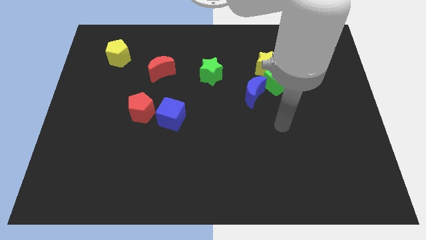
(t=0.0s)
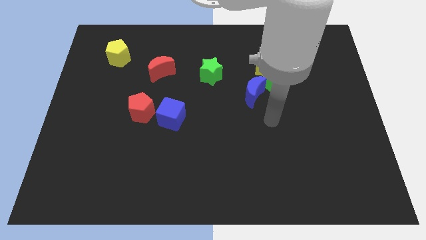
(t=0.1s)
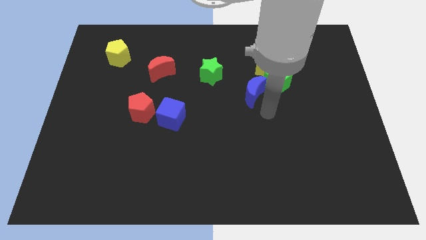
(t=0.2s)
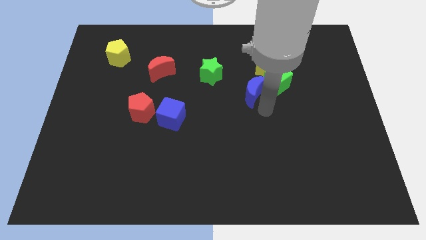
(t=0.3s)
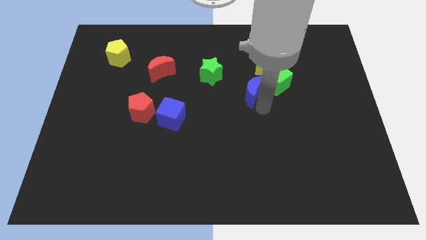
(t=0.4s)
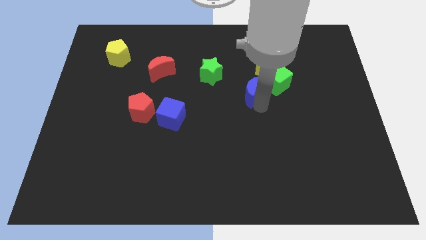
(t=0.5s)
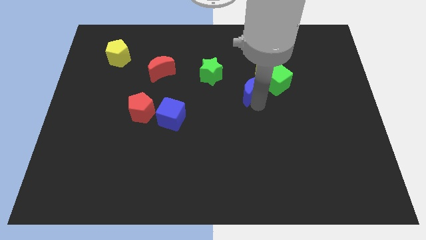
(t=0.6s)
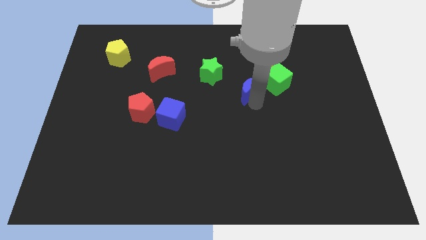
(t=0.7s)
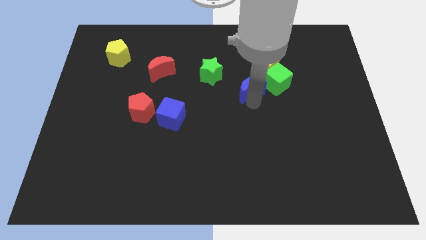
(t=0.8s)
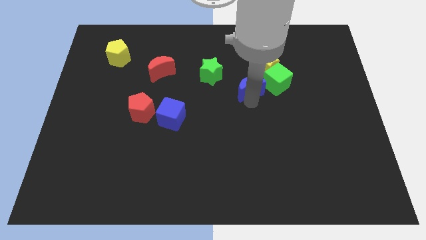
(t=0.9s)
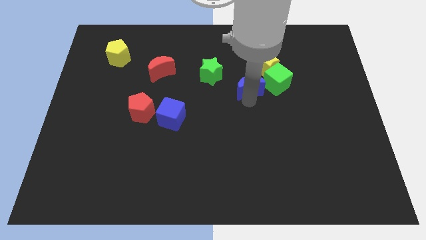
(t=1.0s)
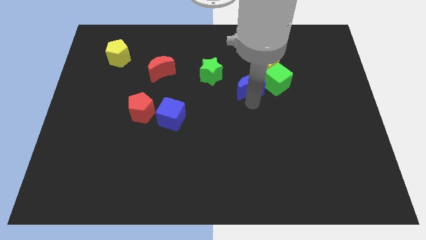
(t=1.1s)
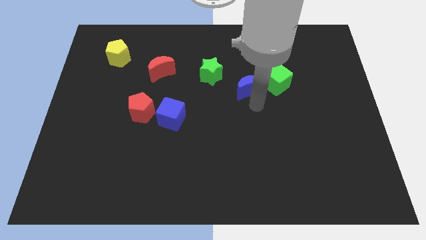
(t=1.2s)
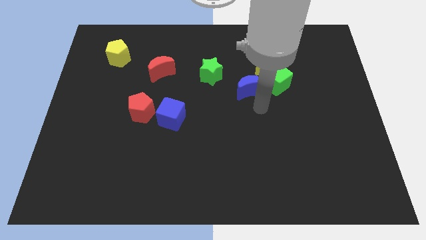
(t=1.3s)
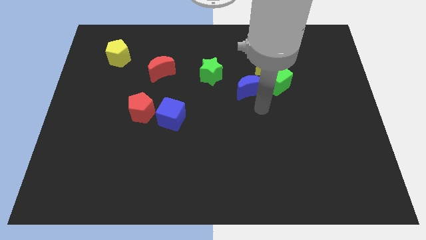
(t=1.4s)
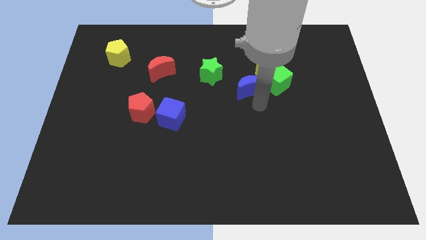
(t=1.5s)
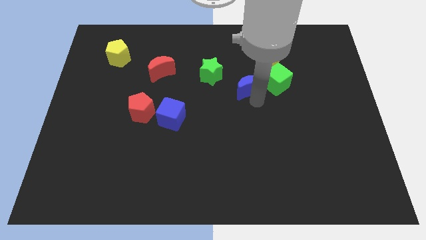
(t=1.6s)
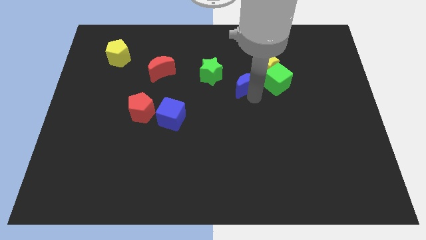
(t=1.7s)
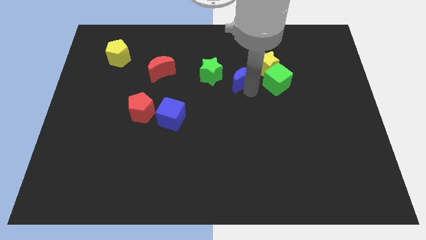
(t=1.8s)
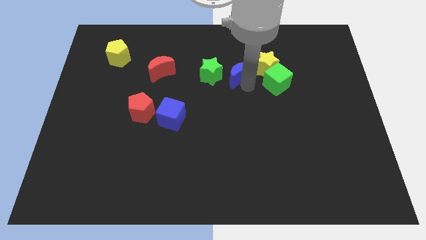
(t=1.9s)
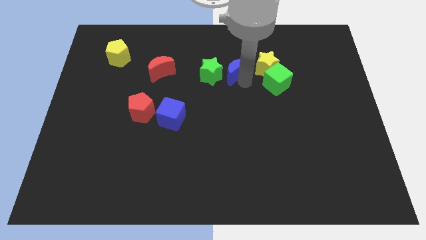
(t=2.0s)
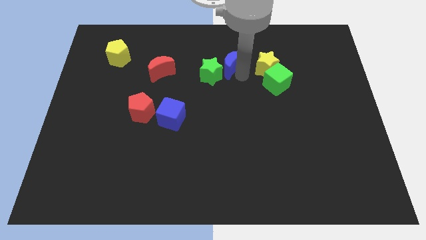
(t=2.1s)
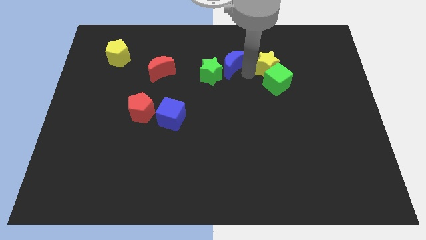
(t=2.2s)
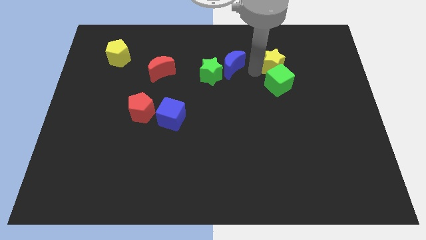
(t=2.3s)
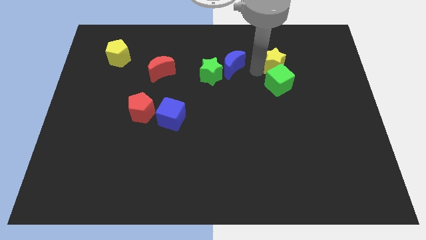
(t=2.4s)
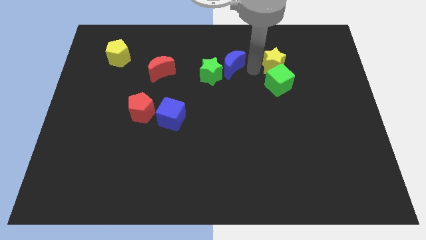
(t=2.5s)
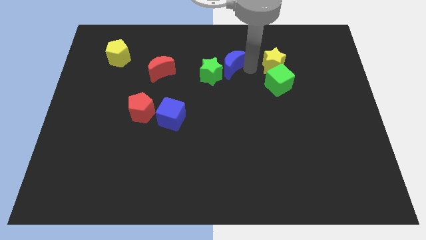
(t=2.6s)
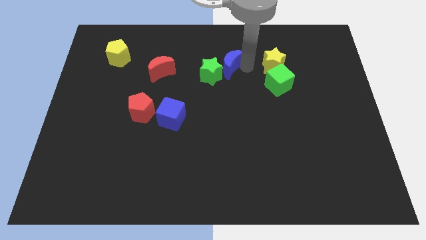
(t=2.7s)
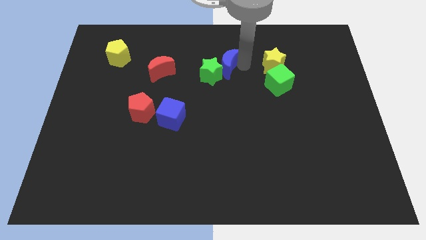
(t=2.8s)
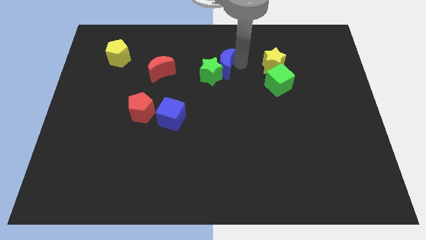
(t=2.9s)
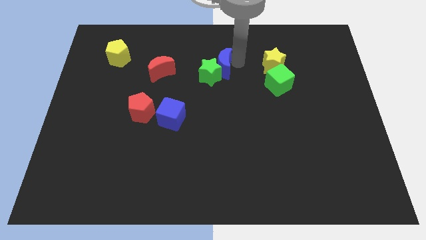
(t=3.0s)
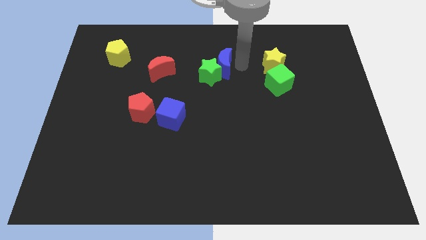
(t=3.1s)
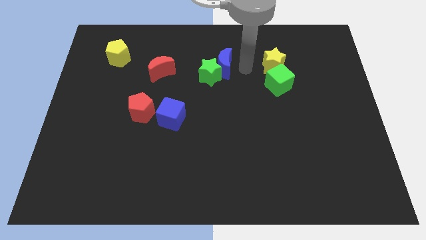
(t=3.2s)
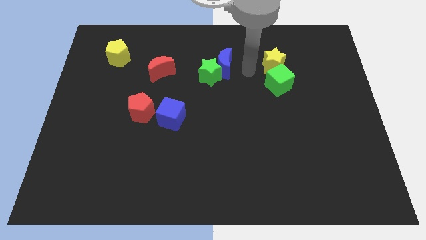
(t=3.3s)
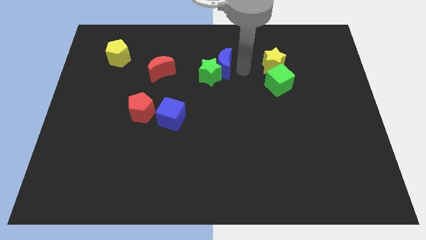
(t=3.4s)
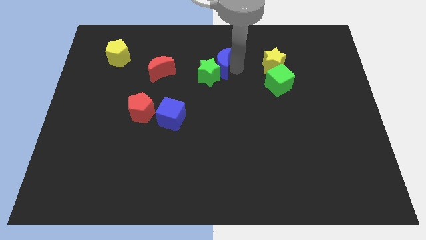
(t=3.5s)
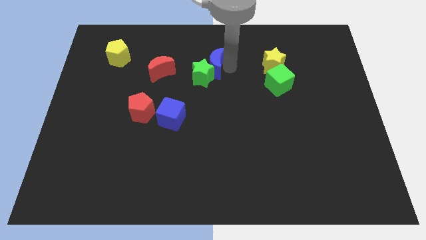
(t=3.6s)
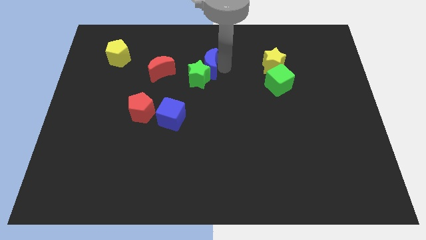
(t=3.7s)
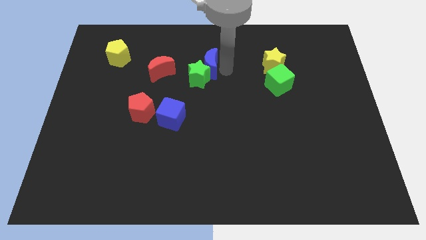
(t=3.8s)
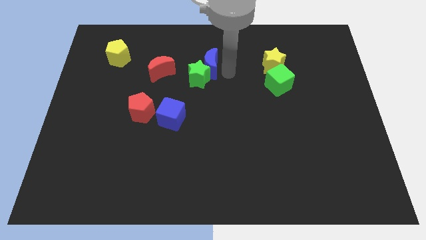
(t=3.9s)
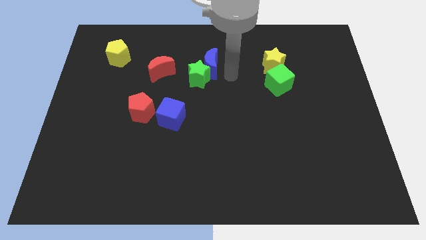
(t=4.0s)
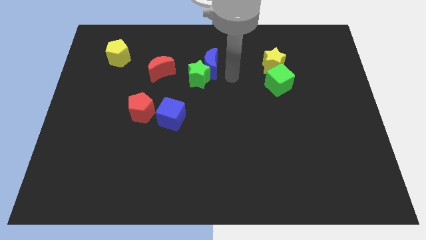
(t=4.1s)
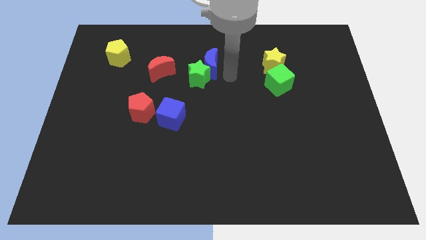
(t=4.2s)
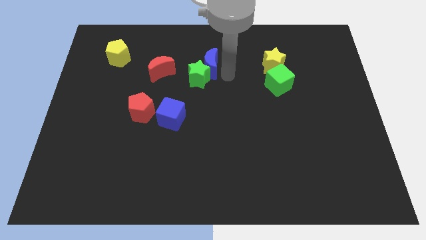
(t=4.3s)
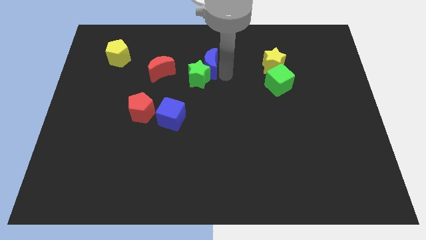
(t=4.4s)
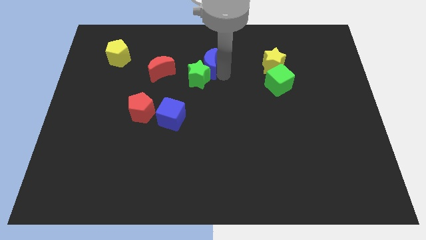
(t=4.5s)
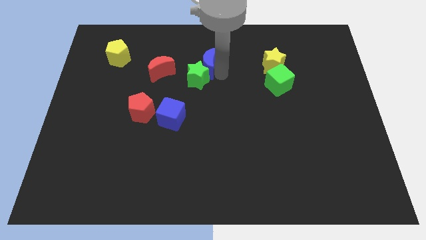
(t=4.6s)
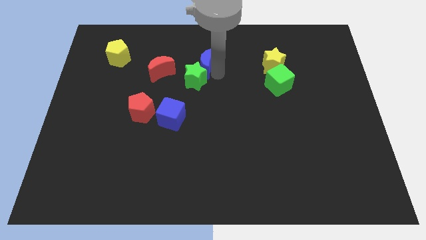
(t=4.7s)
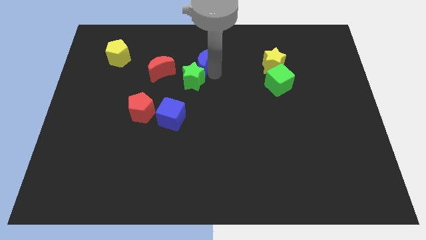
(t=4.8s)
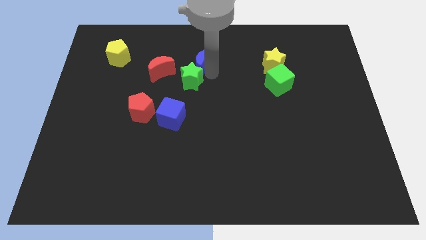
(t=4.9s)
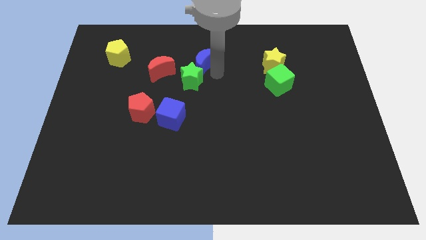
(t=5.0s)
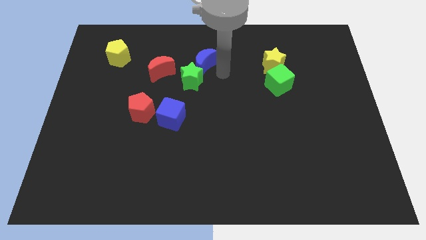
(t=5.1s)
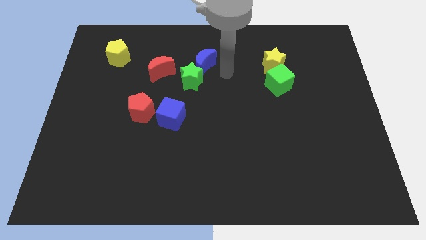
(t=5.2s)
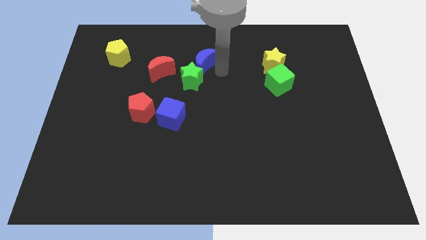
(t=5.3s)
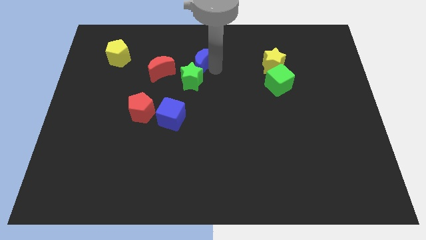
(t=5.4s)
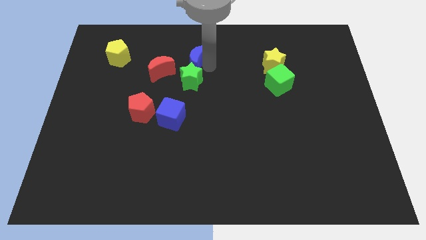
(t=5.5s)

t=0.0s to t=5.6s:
slide the blue moon to the top right side of the red moon

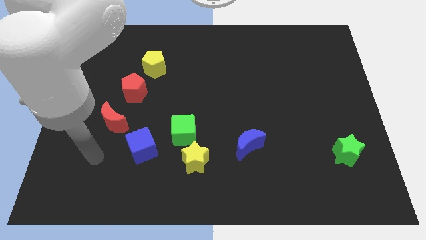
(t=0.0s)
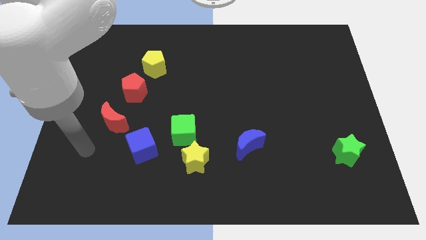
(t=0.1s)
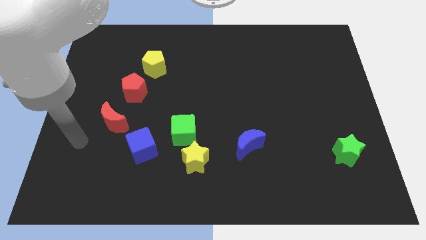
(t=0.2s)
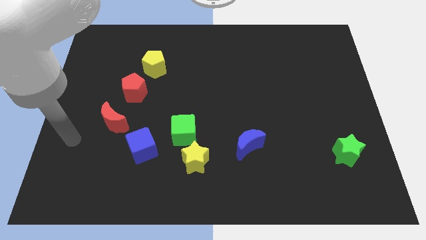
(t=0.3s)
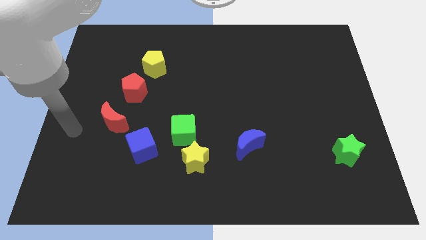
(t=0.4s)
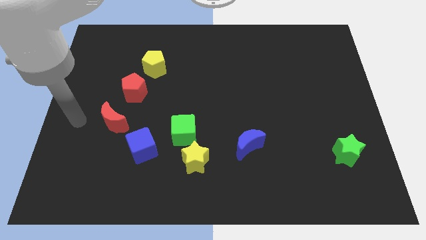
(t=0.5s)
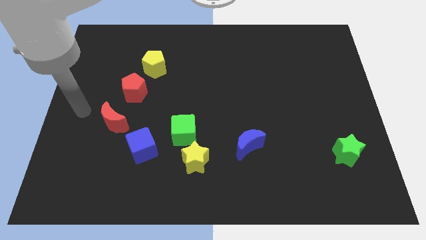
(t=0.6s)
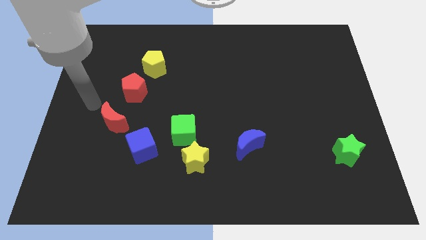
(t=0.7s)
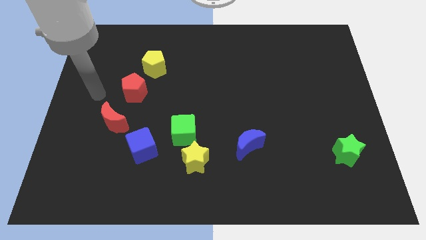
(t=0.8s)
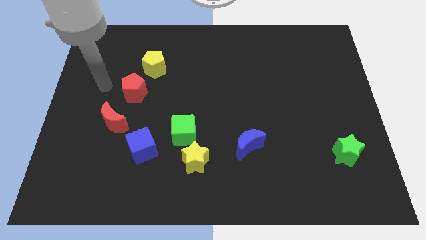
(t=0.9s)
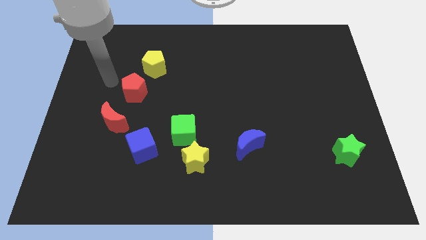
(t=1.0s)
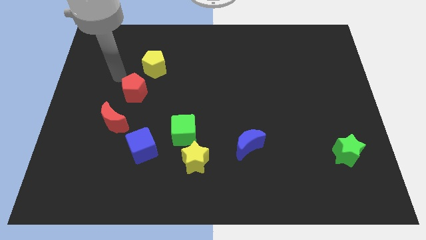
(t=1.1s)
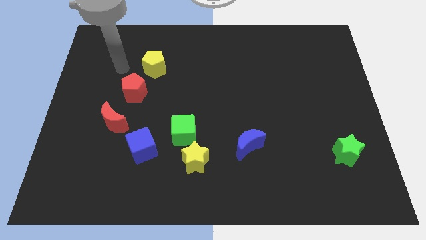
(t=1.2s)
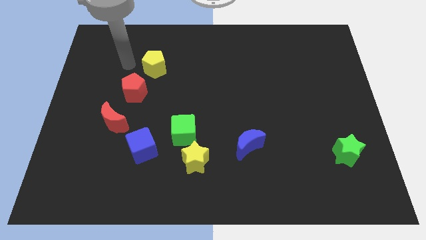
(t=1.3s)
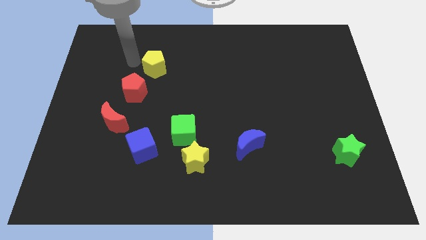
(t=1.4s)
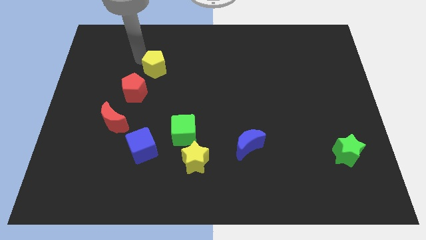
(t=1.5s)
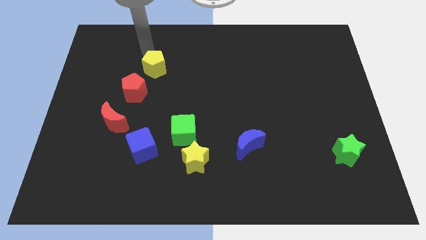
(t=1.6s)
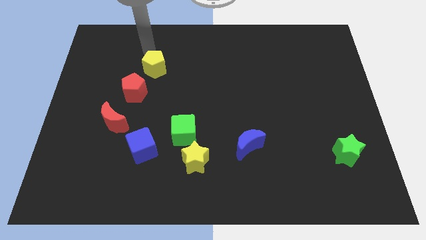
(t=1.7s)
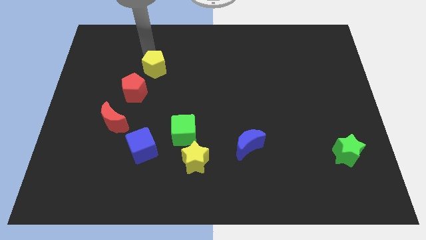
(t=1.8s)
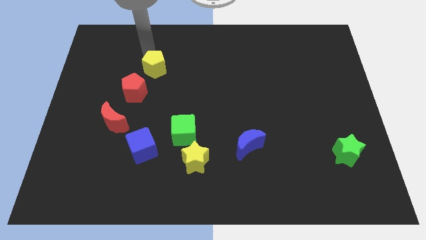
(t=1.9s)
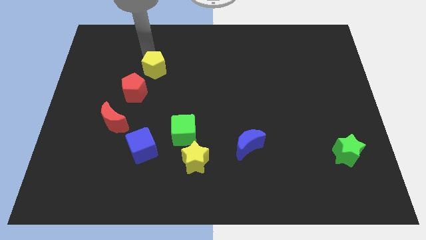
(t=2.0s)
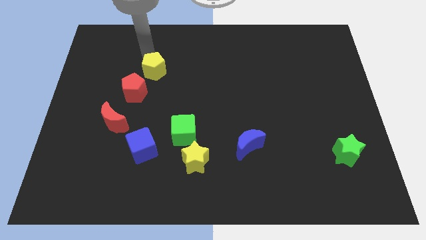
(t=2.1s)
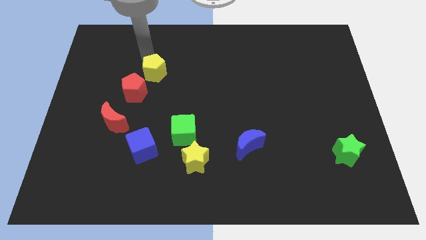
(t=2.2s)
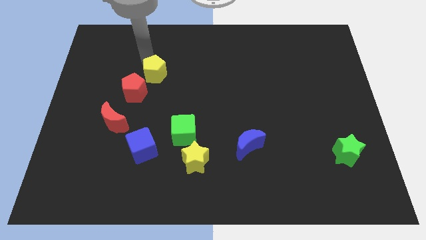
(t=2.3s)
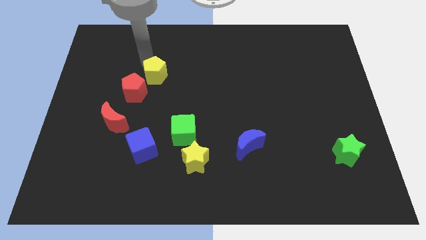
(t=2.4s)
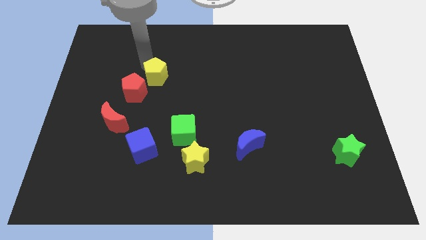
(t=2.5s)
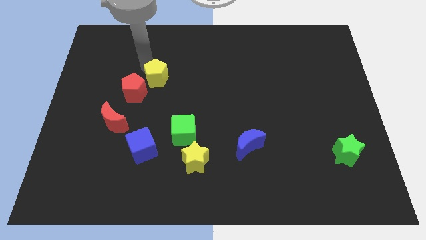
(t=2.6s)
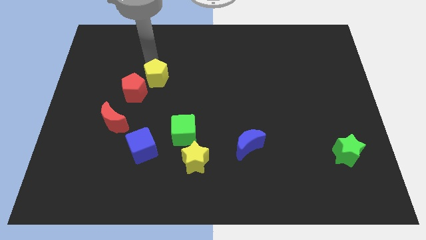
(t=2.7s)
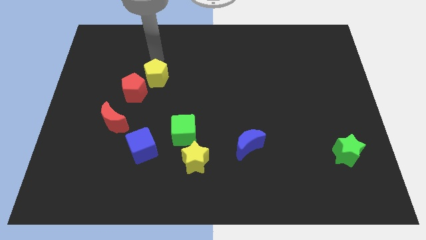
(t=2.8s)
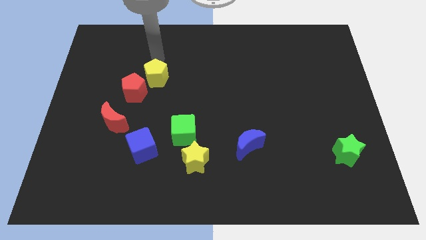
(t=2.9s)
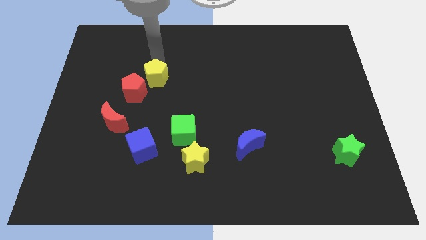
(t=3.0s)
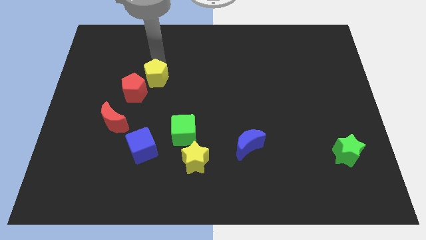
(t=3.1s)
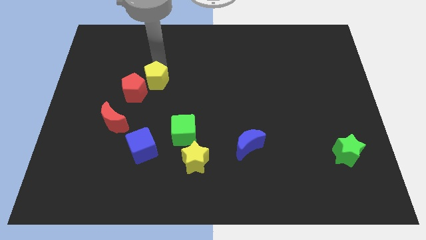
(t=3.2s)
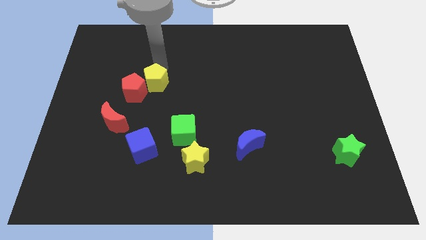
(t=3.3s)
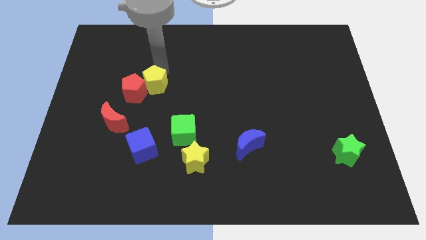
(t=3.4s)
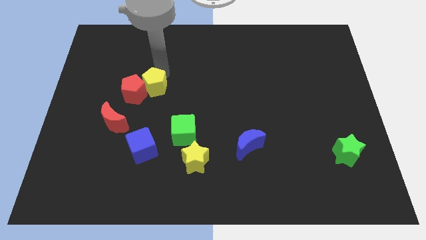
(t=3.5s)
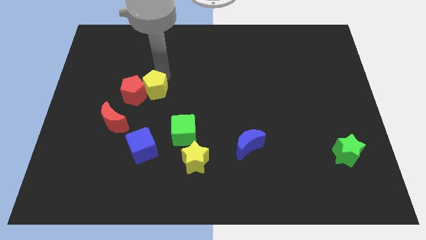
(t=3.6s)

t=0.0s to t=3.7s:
push the yellow pentagon diagonally down and to the right of the red pentagon
